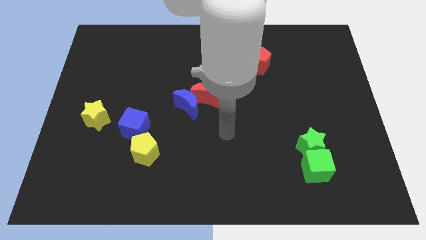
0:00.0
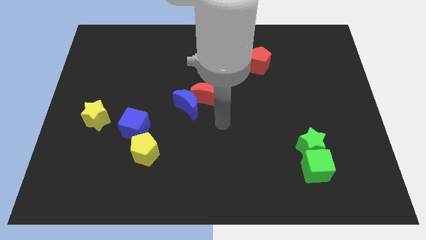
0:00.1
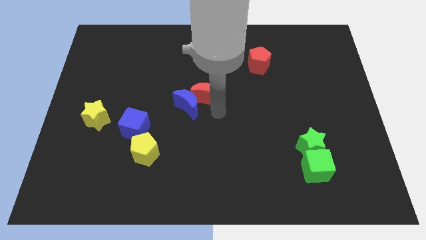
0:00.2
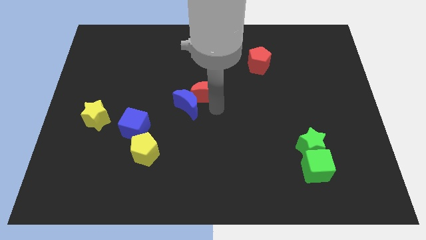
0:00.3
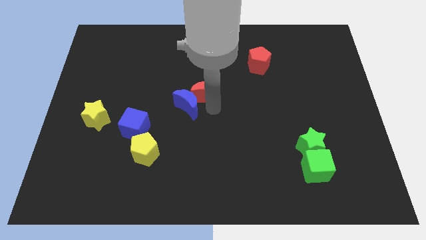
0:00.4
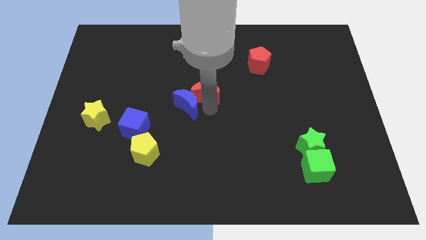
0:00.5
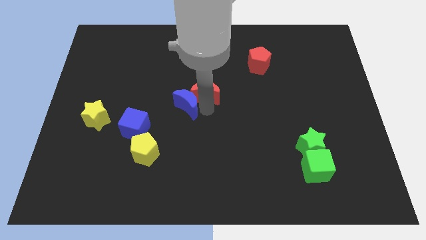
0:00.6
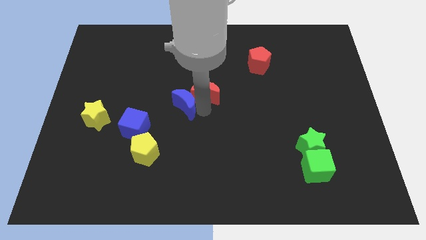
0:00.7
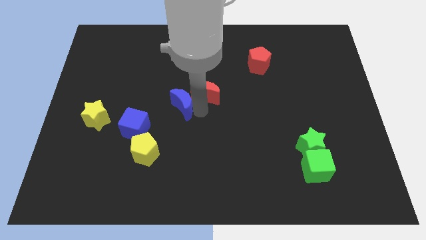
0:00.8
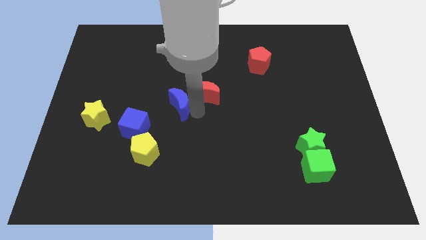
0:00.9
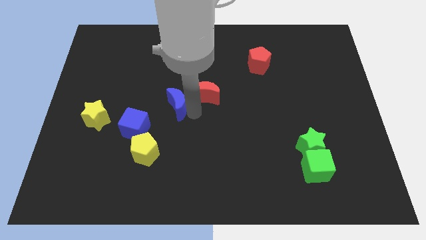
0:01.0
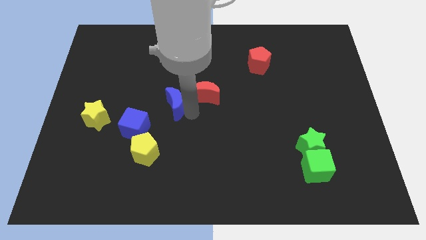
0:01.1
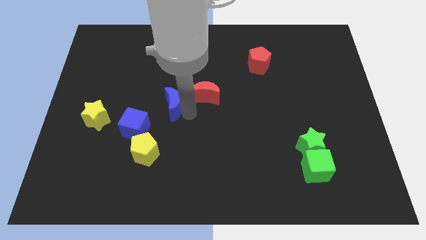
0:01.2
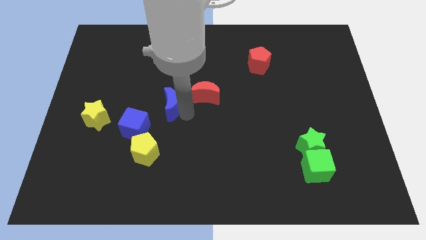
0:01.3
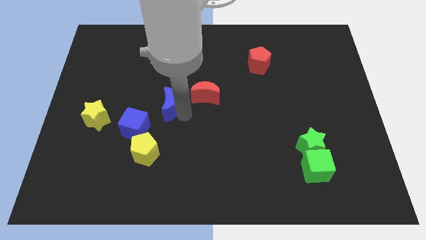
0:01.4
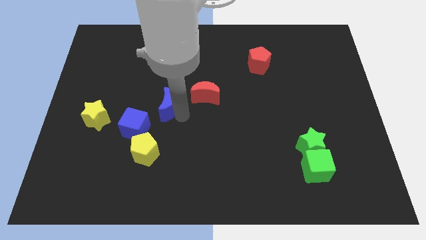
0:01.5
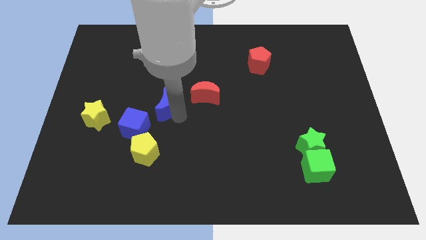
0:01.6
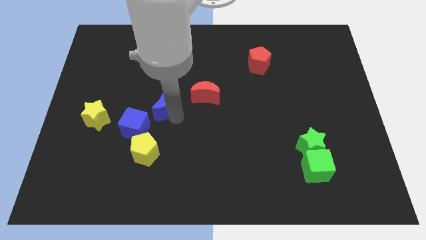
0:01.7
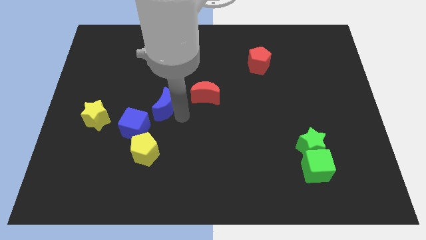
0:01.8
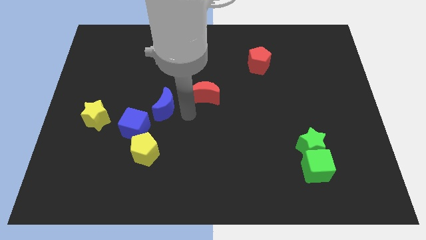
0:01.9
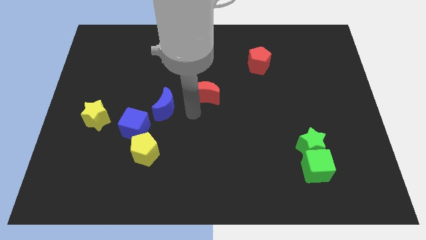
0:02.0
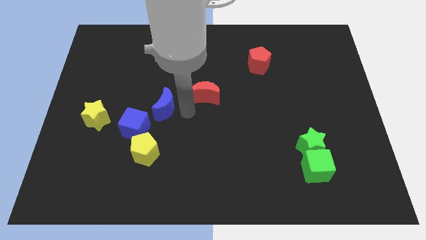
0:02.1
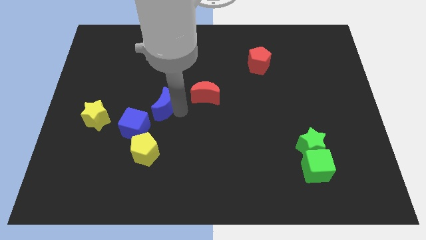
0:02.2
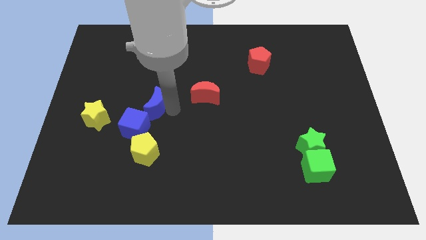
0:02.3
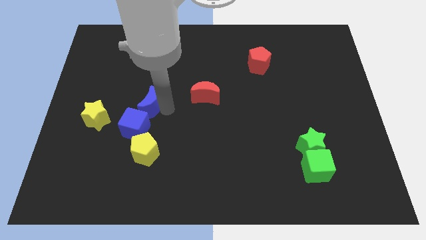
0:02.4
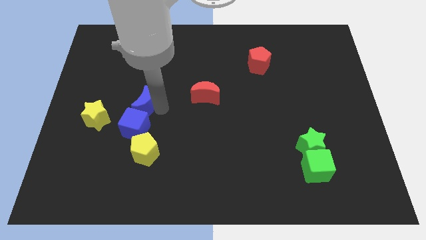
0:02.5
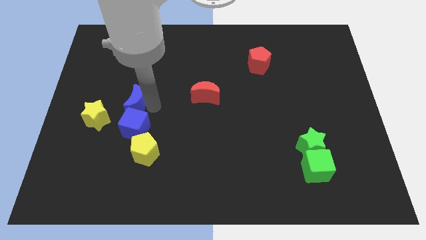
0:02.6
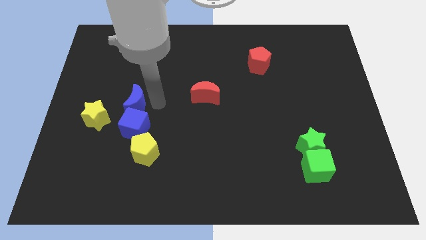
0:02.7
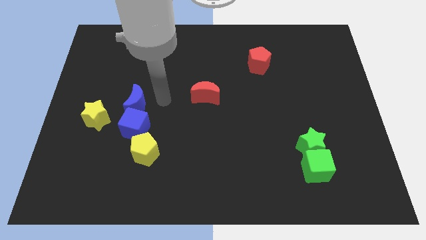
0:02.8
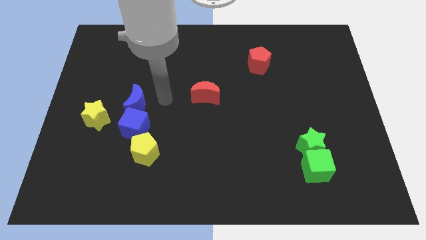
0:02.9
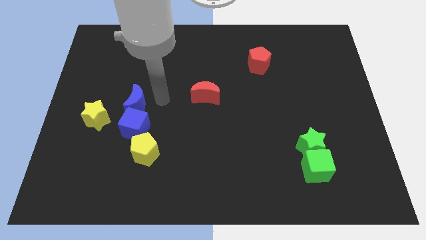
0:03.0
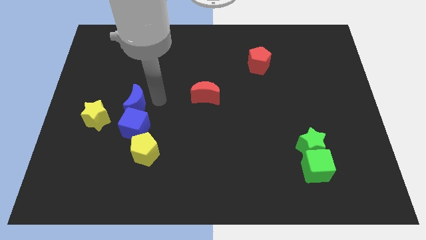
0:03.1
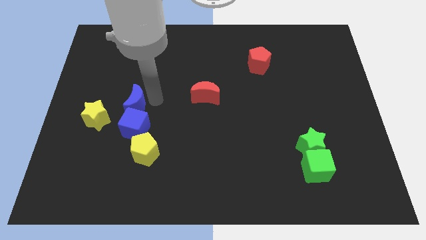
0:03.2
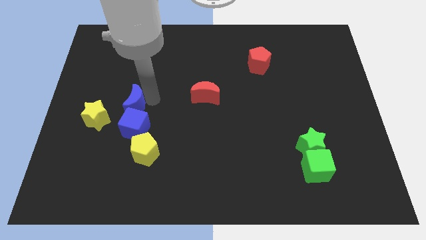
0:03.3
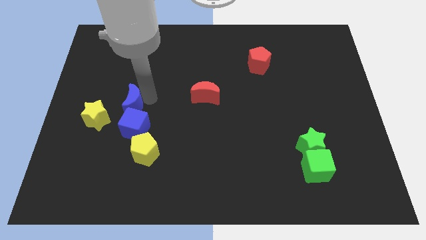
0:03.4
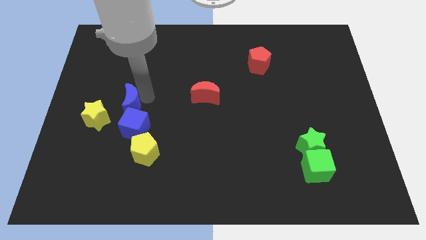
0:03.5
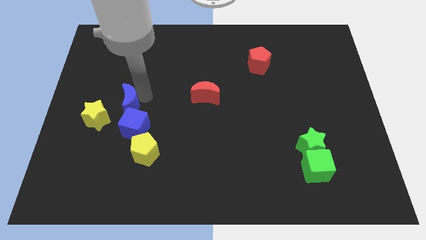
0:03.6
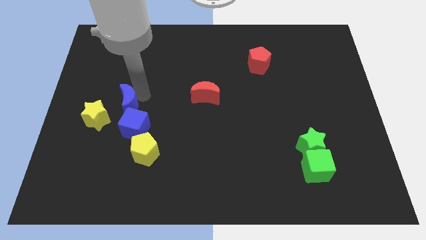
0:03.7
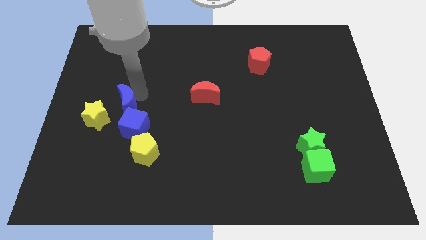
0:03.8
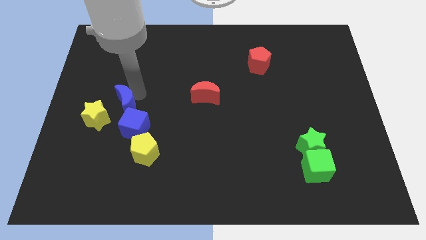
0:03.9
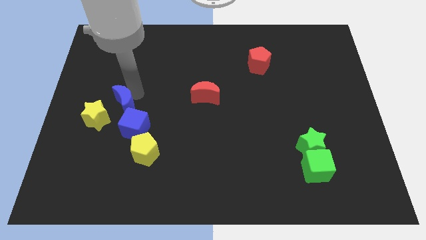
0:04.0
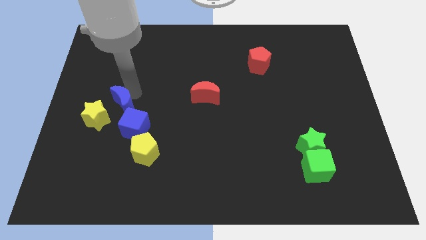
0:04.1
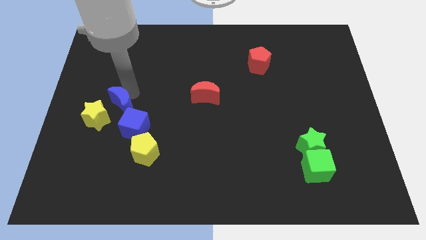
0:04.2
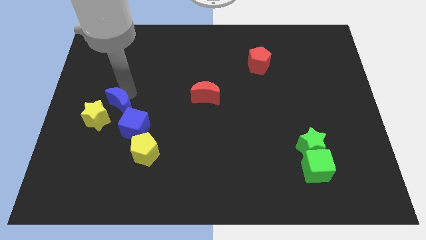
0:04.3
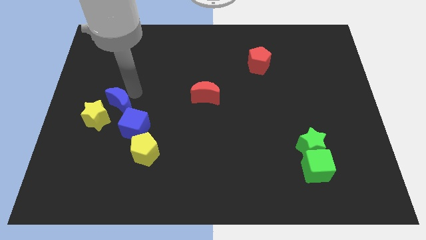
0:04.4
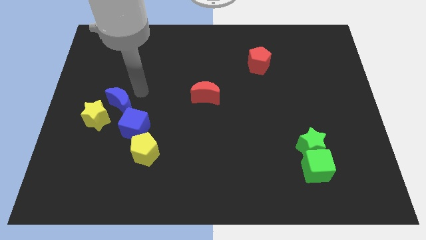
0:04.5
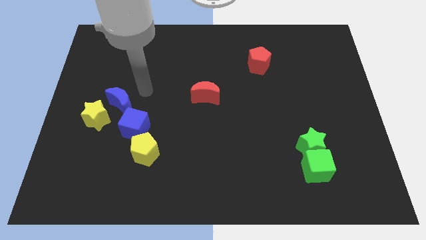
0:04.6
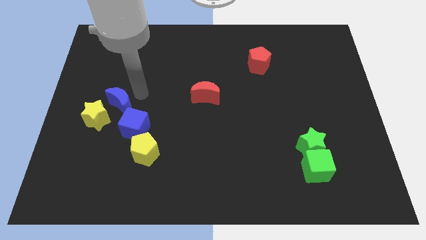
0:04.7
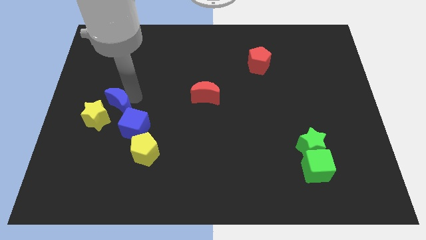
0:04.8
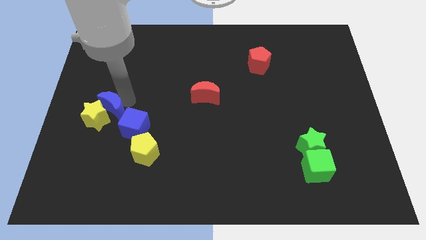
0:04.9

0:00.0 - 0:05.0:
put the blue moon close to the yellow star

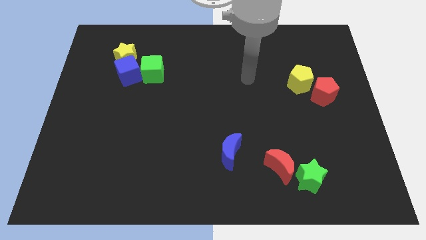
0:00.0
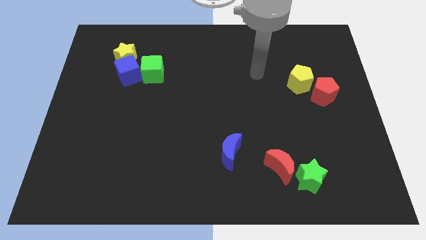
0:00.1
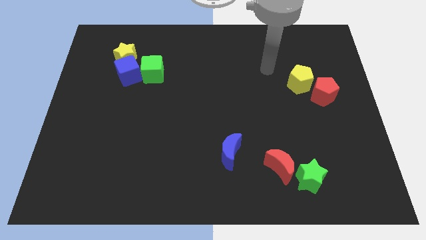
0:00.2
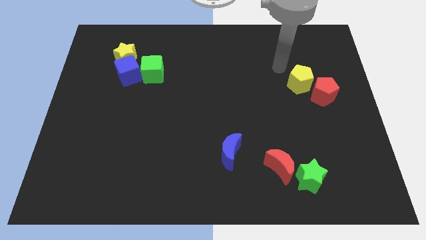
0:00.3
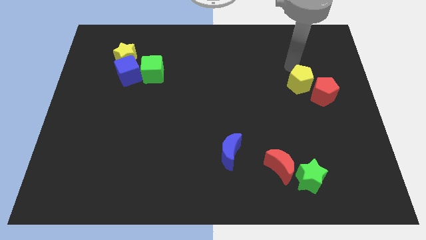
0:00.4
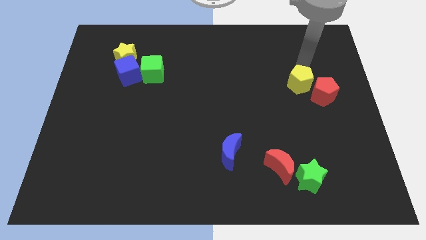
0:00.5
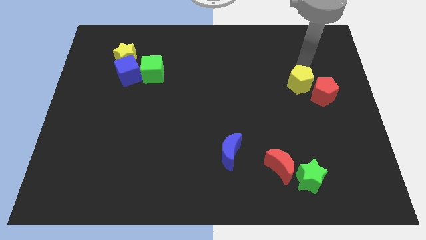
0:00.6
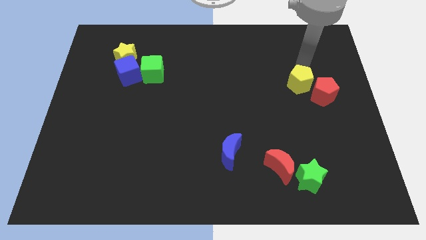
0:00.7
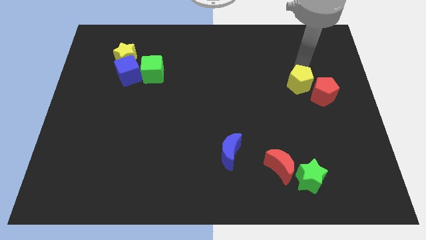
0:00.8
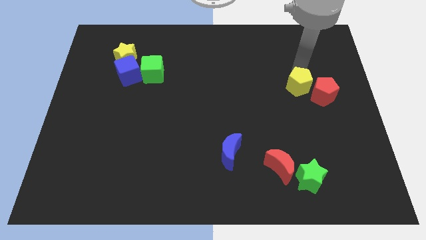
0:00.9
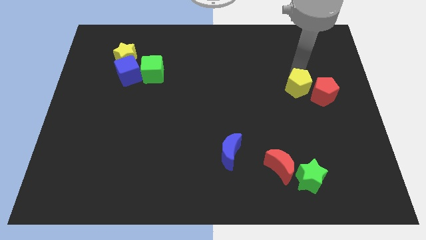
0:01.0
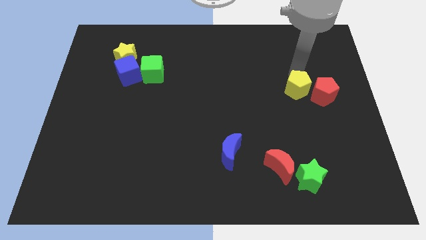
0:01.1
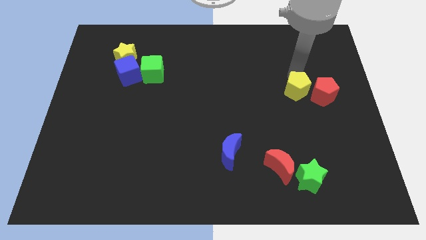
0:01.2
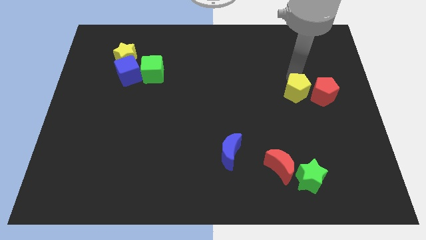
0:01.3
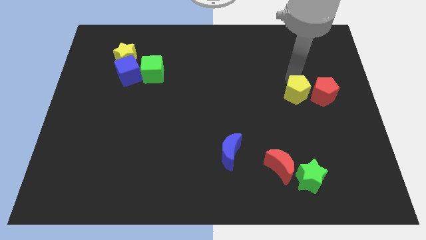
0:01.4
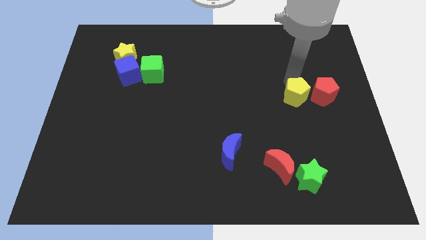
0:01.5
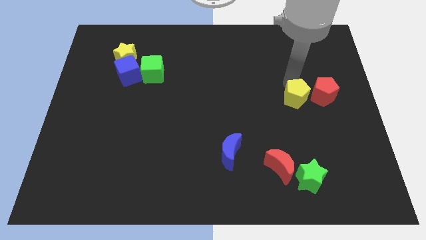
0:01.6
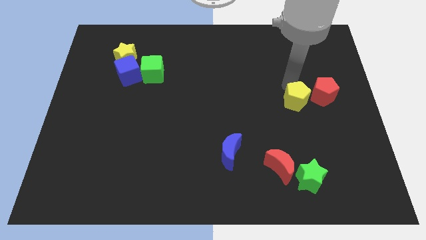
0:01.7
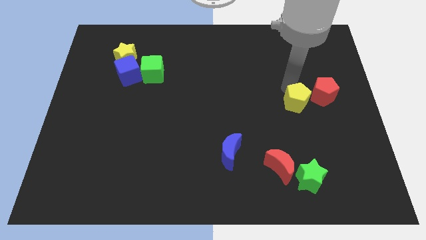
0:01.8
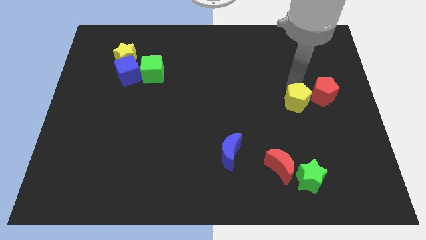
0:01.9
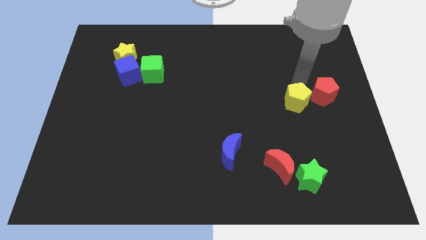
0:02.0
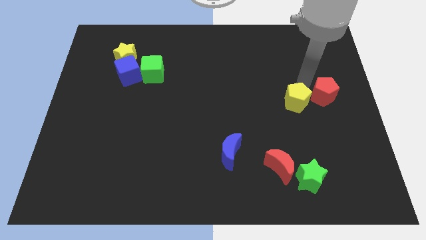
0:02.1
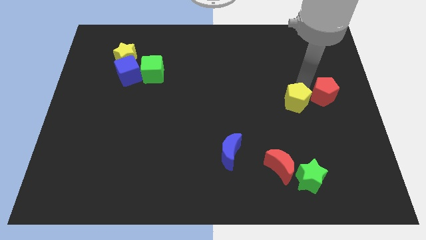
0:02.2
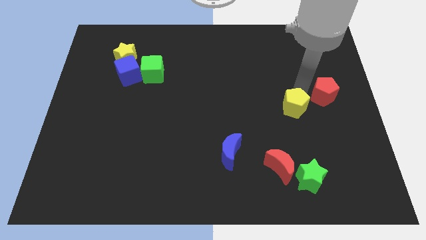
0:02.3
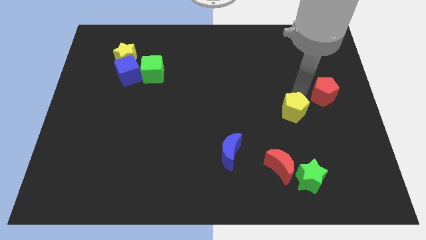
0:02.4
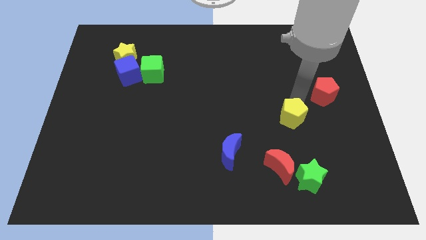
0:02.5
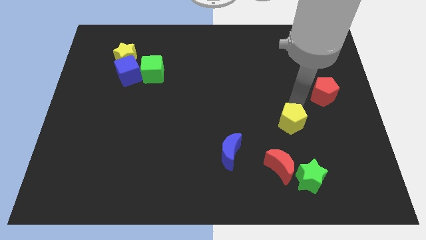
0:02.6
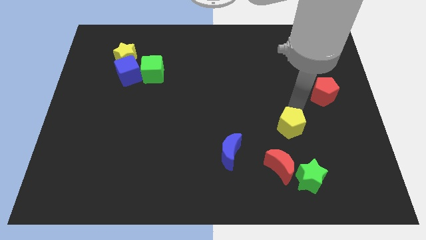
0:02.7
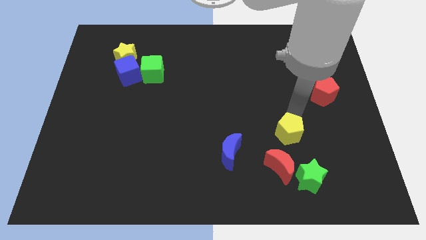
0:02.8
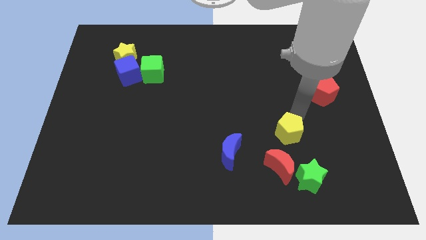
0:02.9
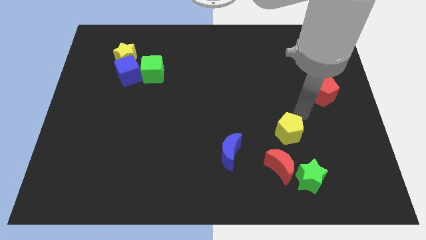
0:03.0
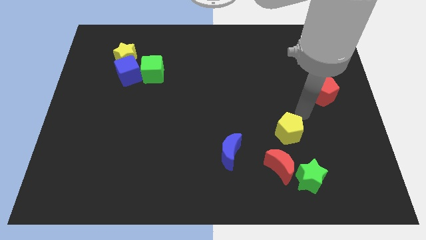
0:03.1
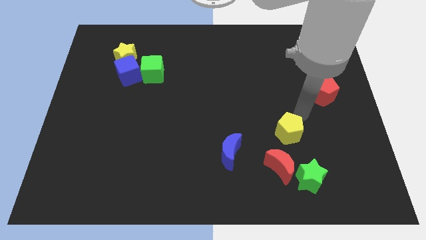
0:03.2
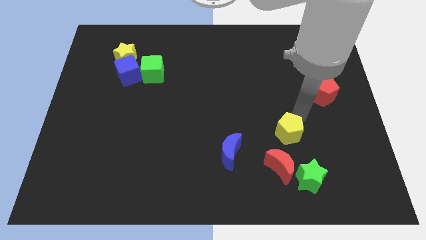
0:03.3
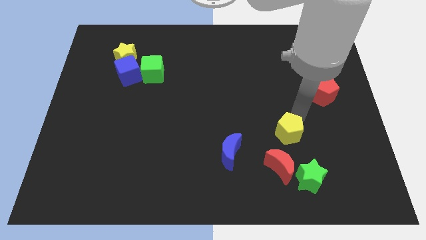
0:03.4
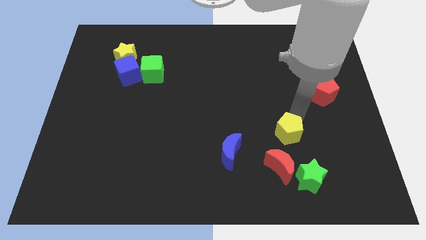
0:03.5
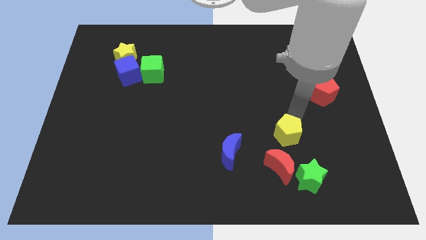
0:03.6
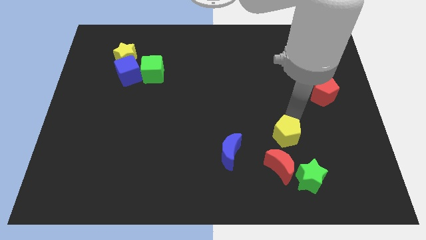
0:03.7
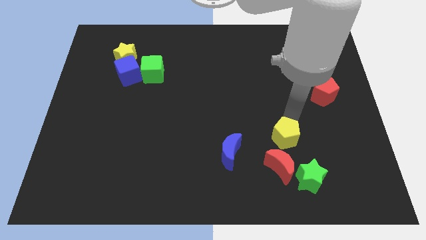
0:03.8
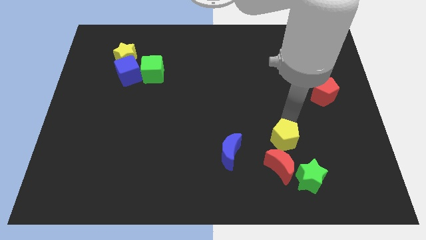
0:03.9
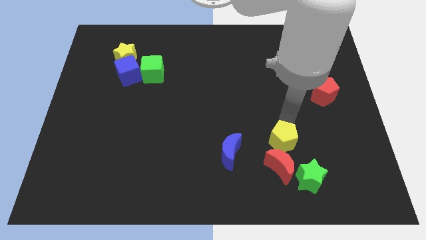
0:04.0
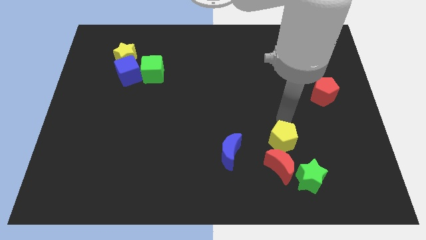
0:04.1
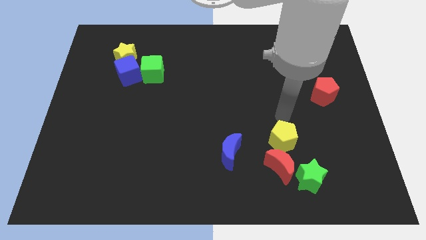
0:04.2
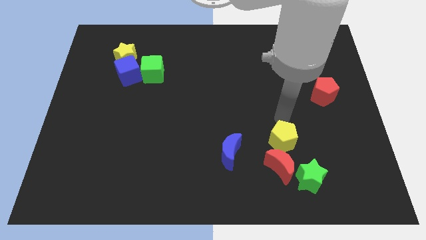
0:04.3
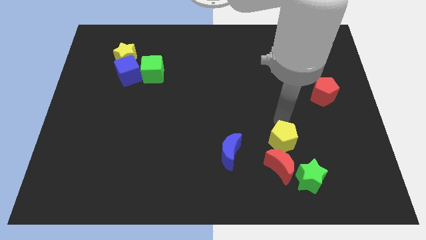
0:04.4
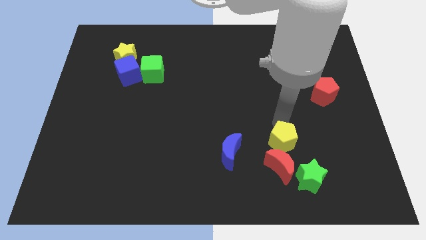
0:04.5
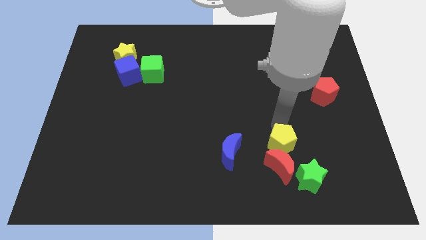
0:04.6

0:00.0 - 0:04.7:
push the yellow pentagon towards the red moon
